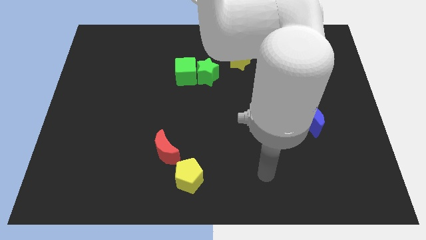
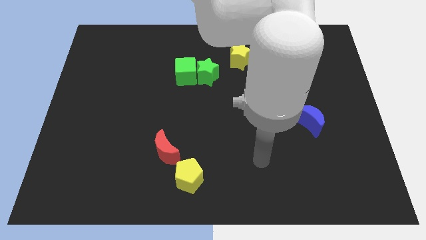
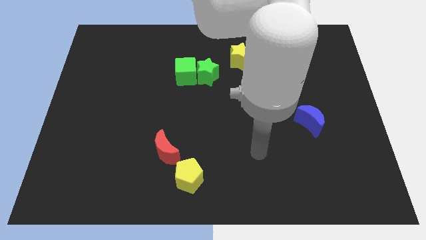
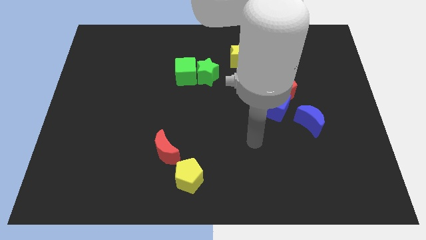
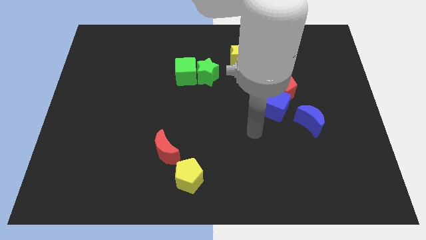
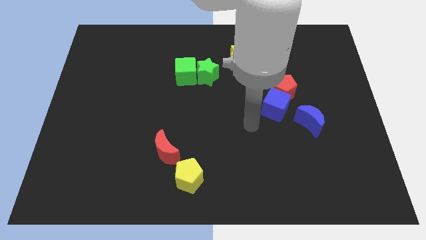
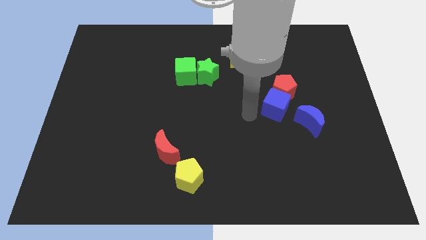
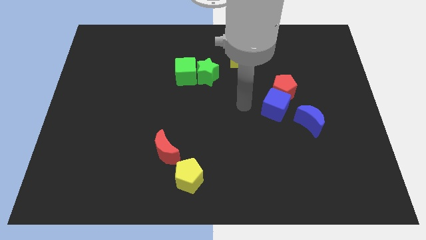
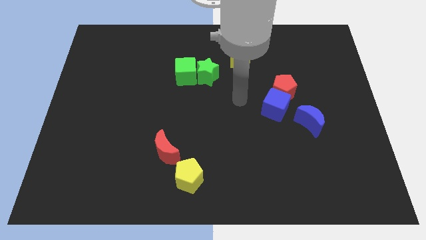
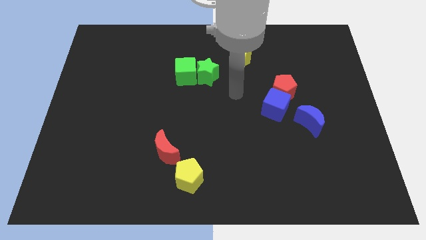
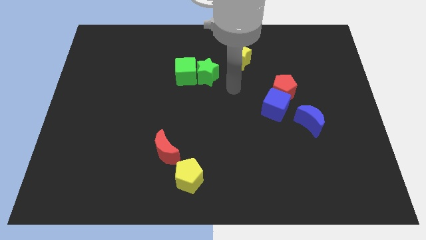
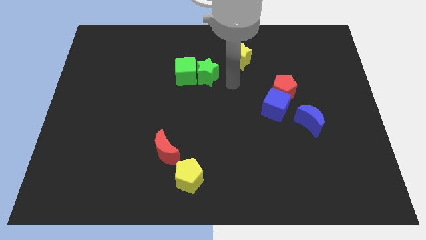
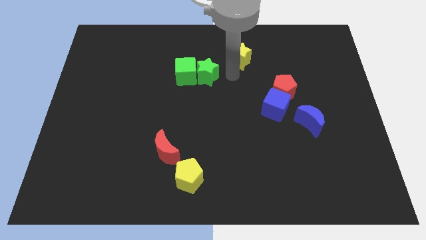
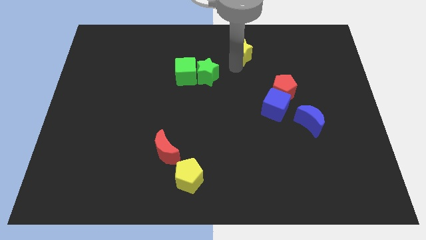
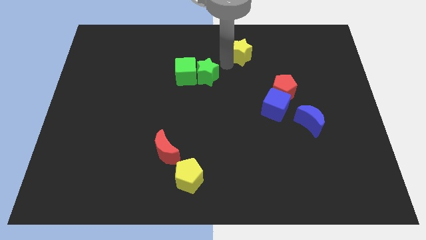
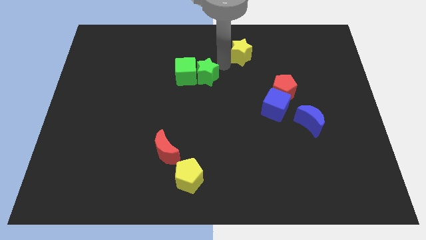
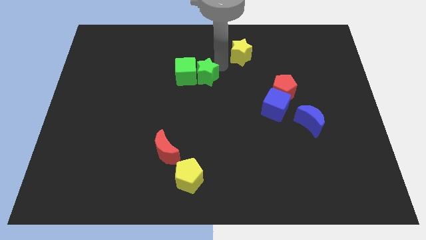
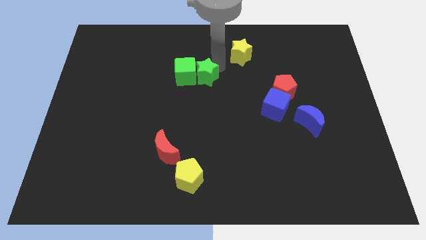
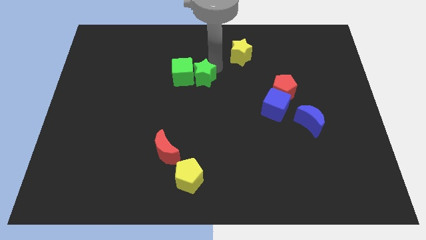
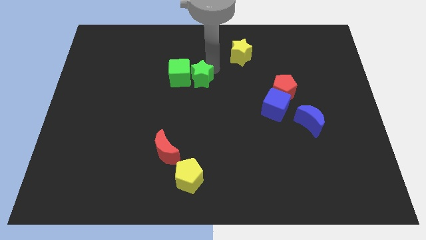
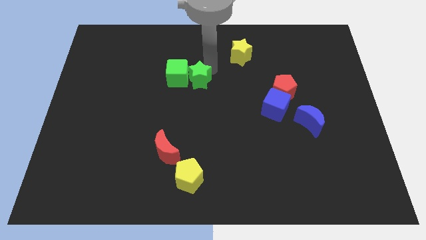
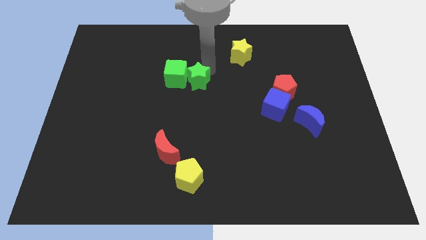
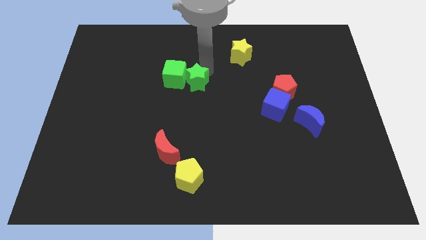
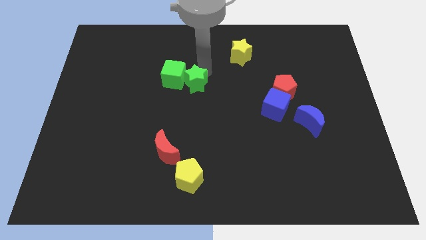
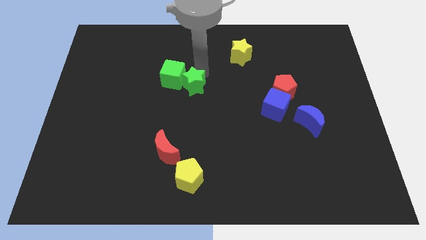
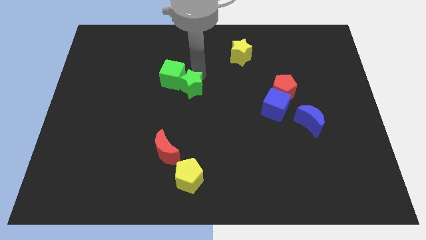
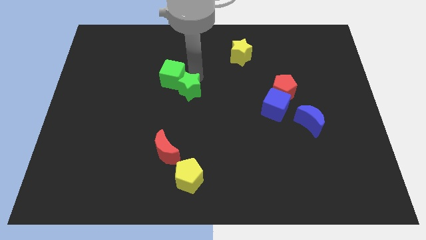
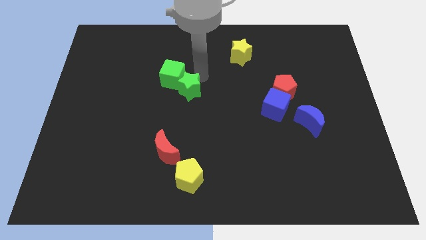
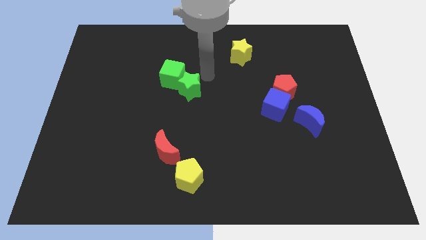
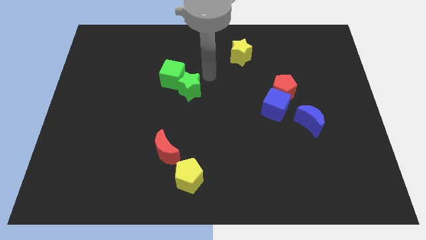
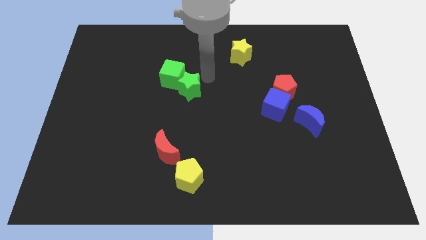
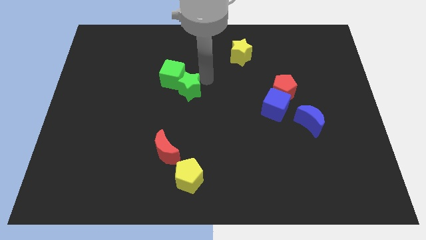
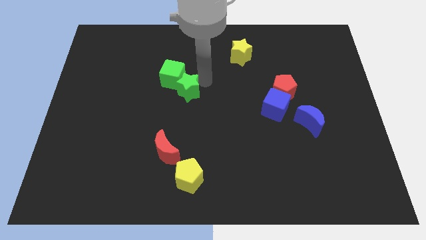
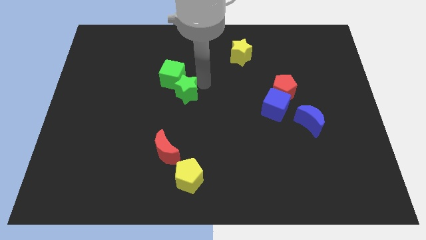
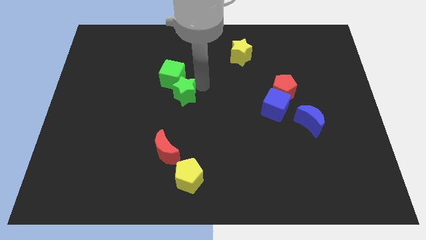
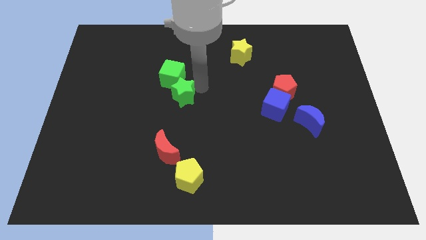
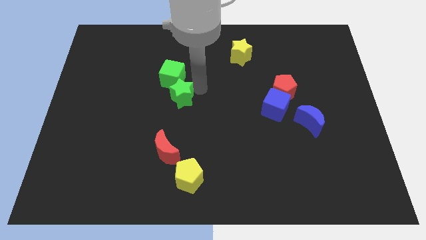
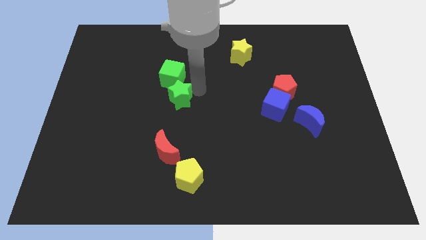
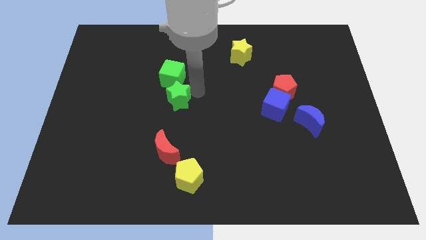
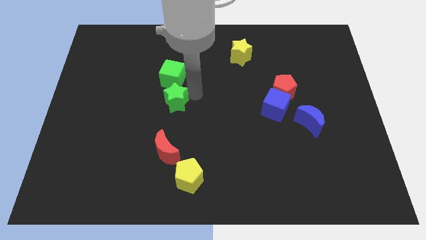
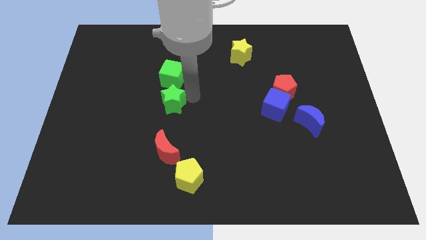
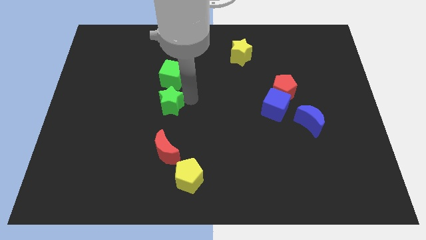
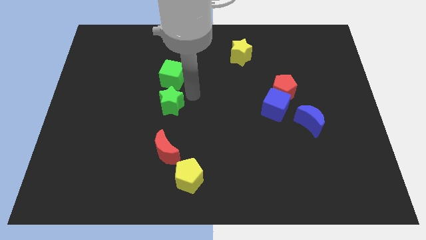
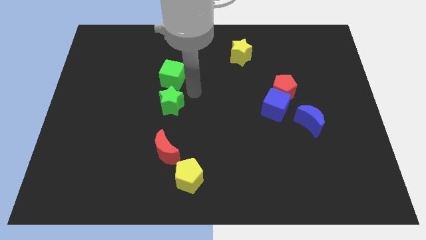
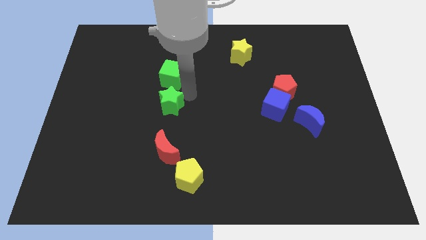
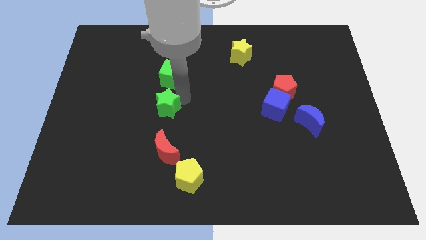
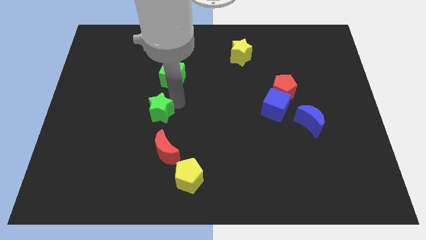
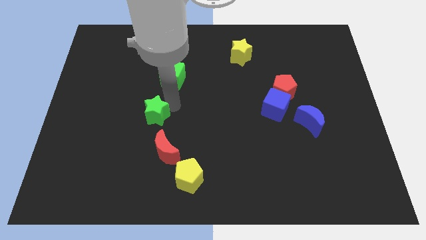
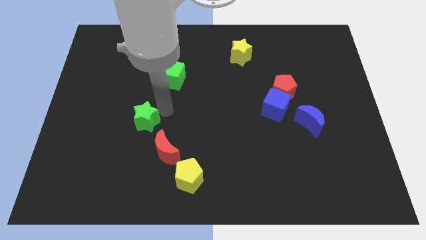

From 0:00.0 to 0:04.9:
move the green star downwards and to the left diagonally

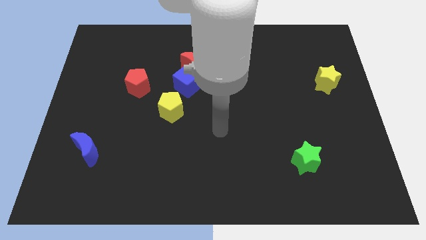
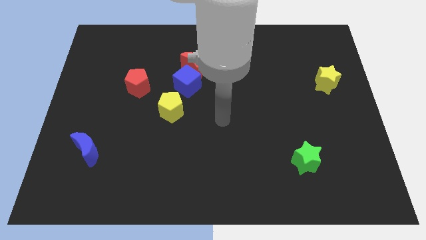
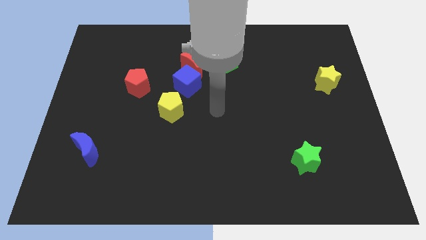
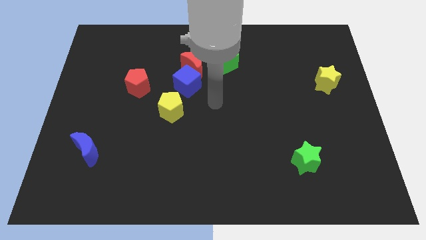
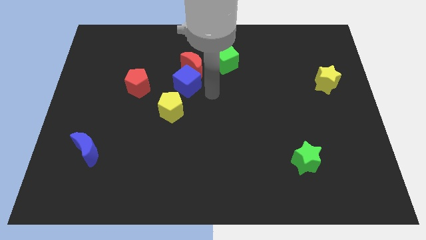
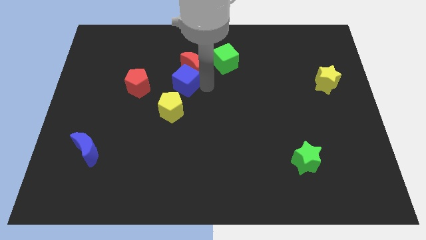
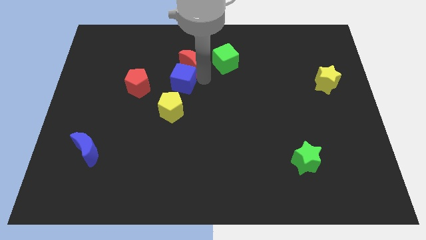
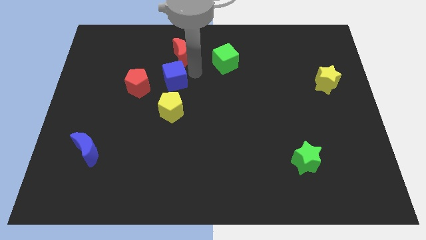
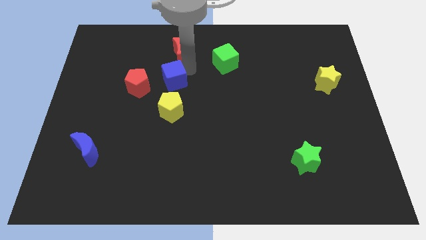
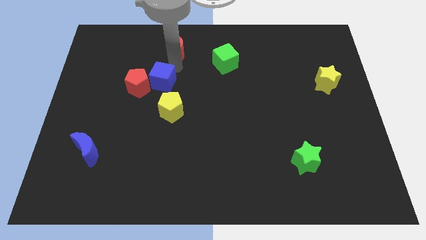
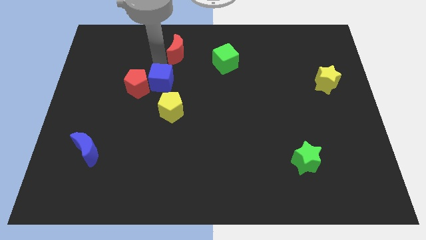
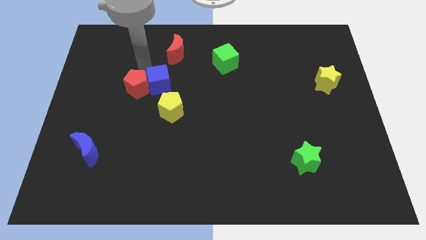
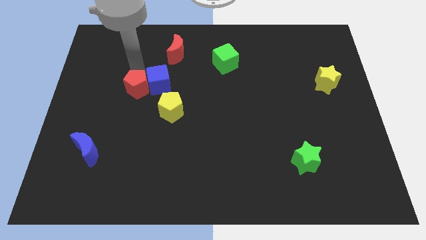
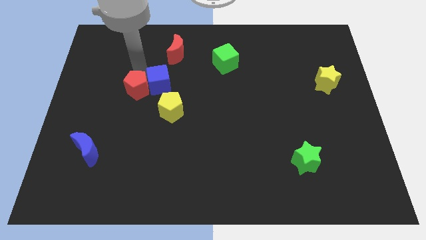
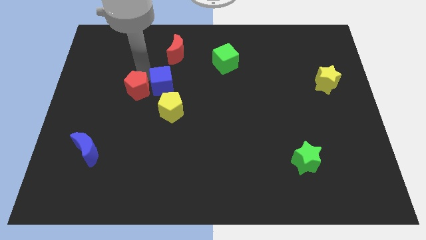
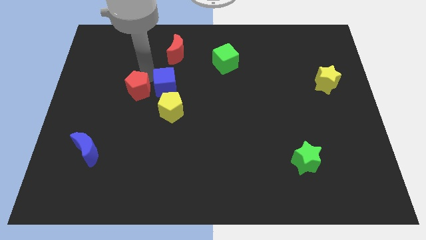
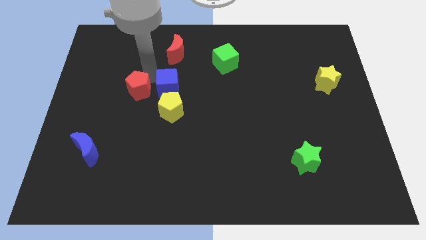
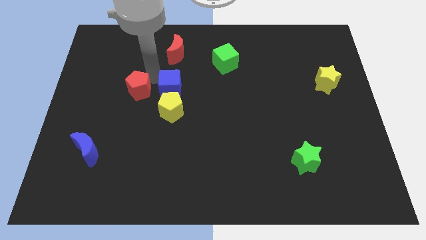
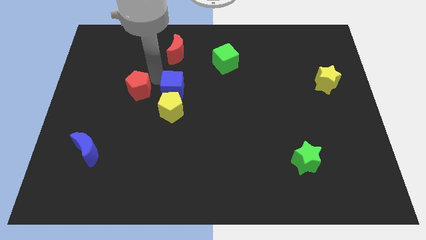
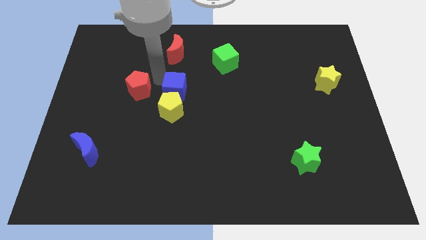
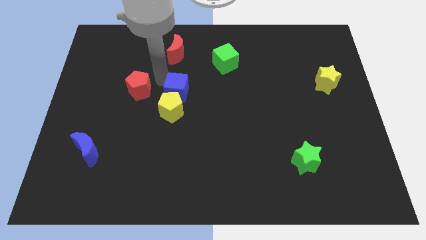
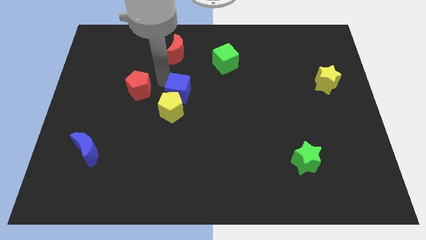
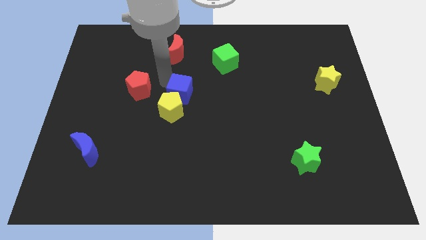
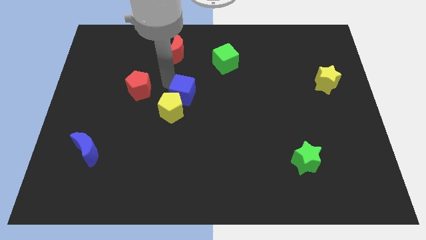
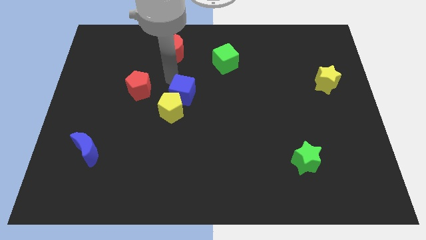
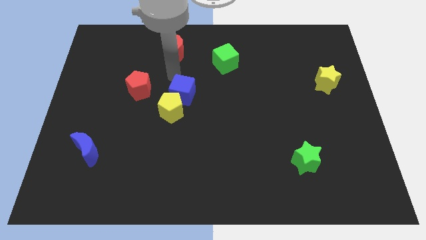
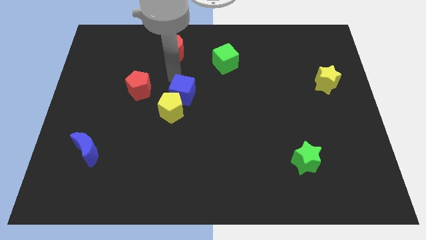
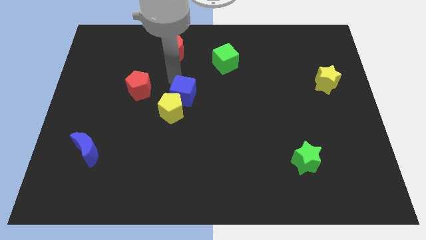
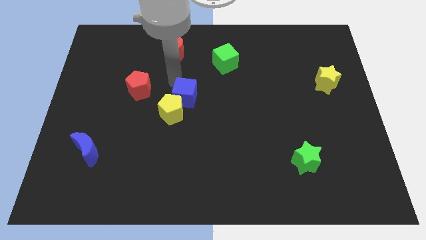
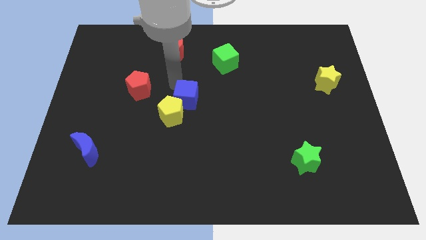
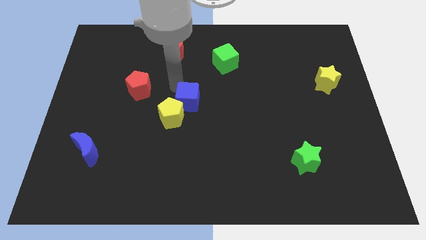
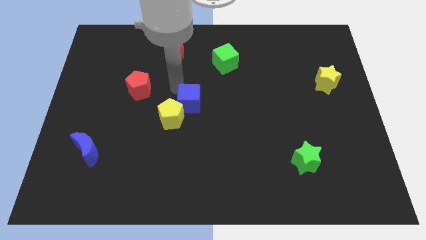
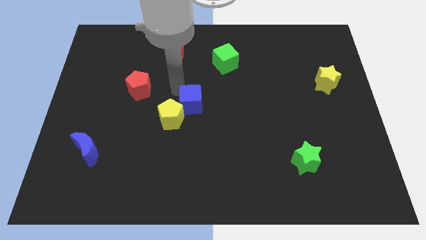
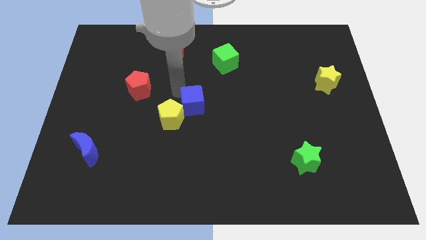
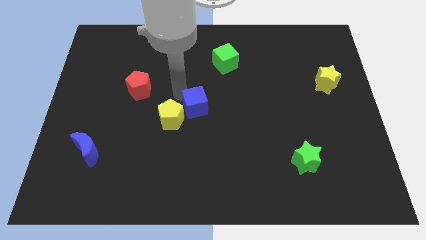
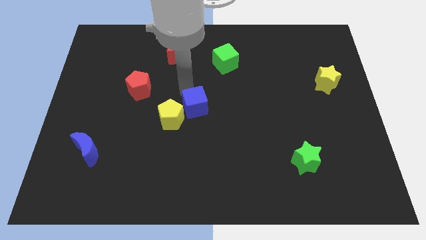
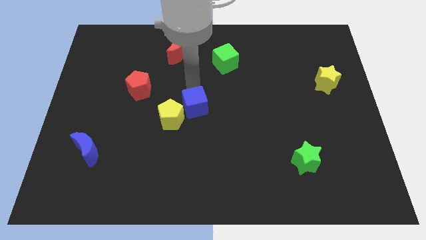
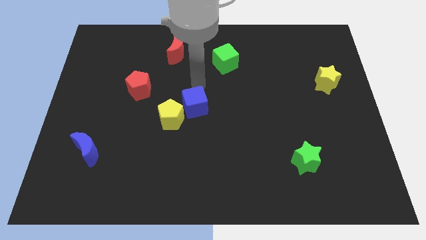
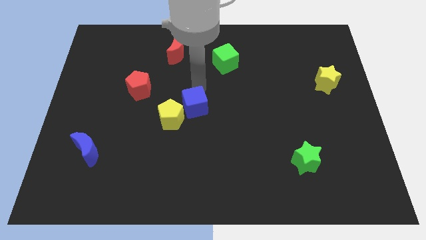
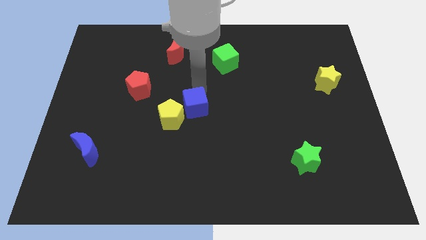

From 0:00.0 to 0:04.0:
push the blue cube a little bit downwards
